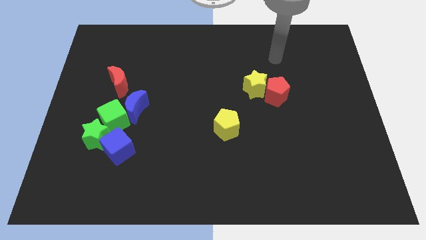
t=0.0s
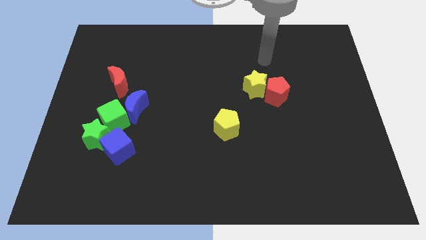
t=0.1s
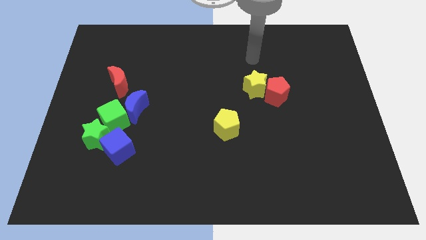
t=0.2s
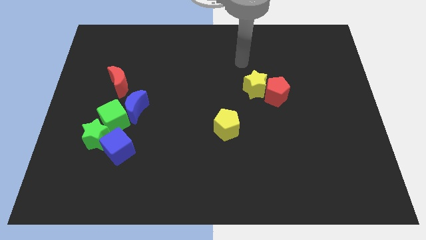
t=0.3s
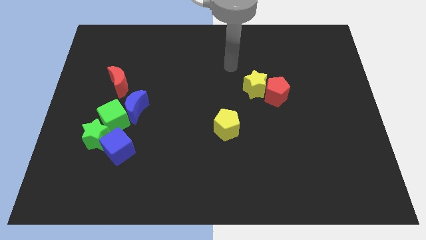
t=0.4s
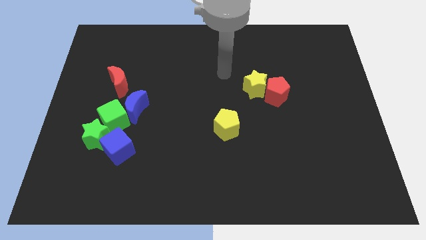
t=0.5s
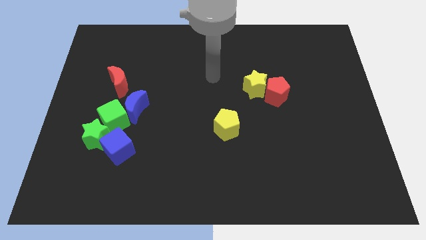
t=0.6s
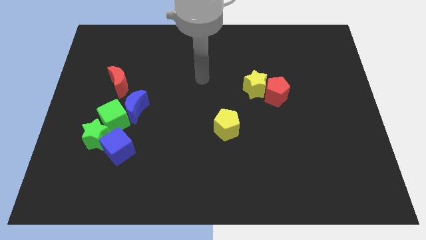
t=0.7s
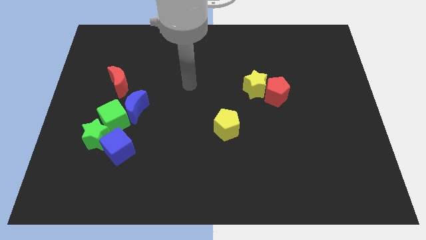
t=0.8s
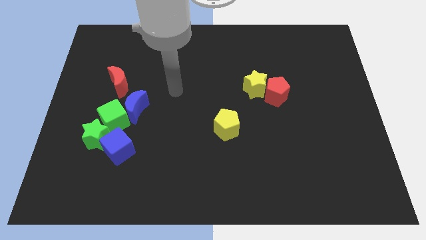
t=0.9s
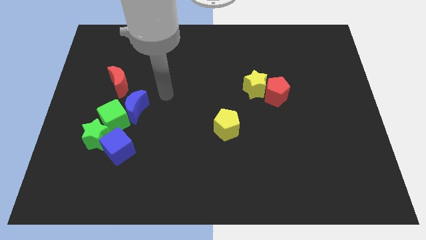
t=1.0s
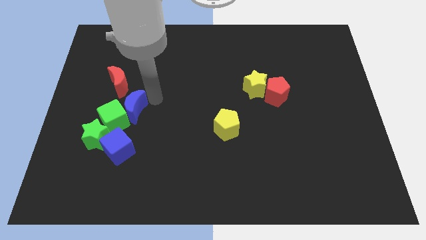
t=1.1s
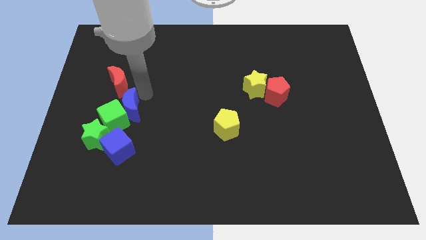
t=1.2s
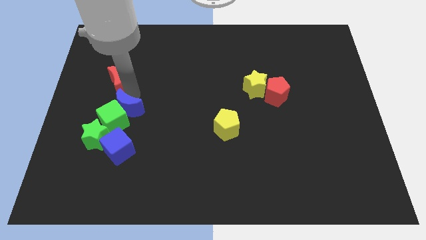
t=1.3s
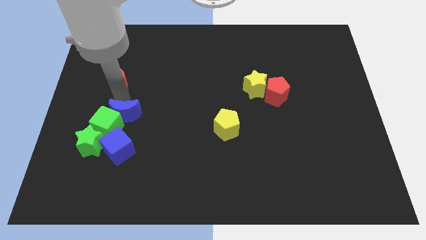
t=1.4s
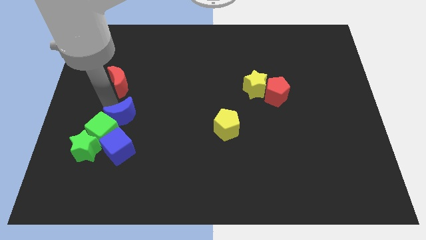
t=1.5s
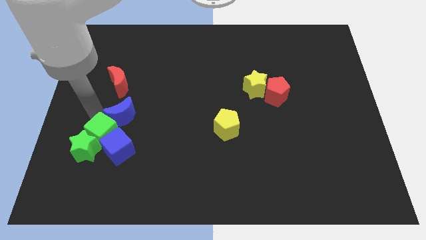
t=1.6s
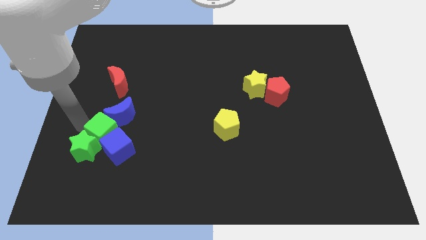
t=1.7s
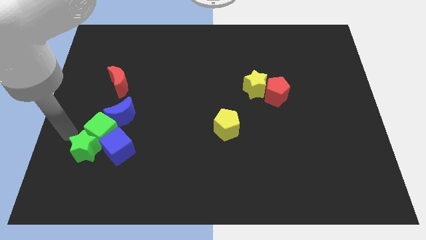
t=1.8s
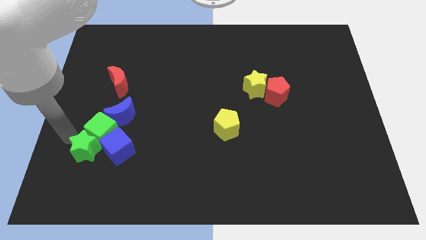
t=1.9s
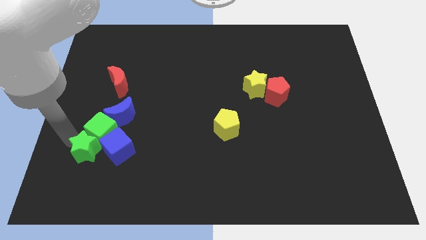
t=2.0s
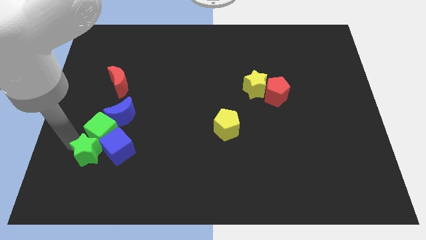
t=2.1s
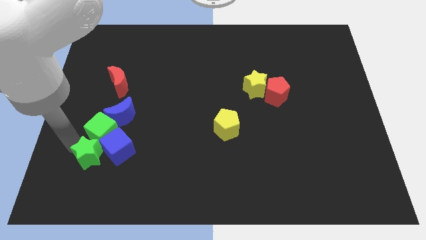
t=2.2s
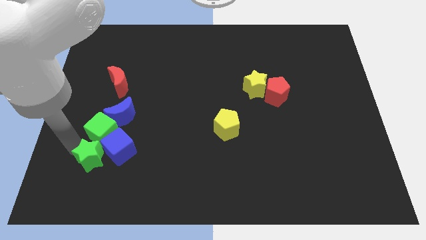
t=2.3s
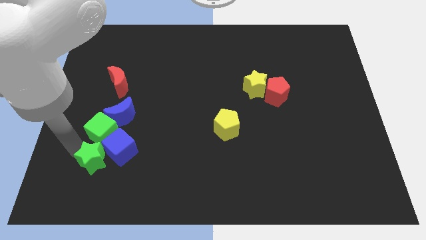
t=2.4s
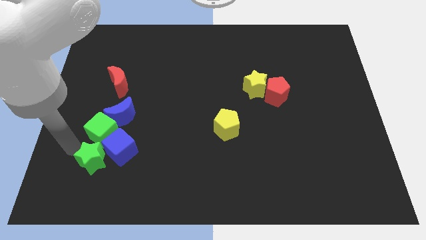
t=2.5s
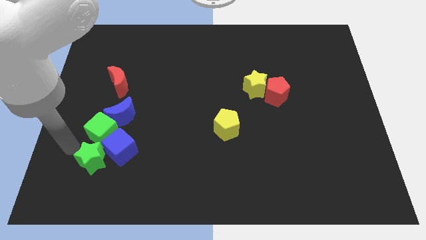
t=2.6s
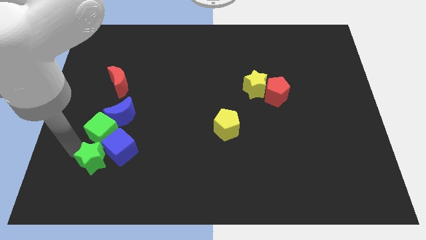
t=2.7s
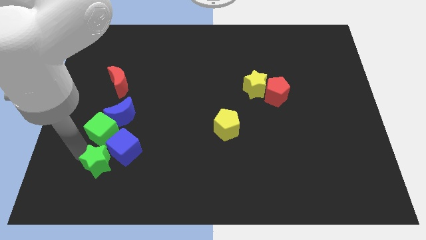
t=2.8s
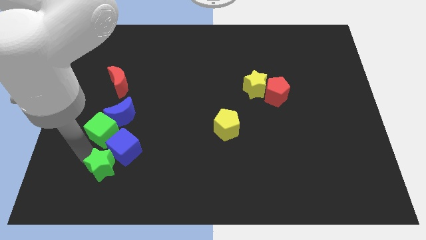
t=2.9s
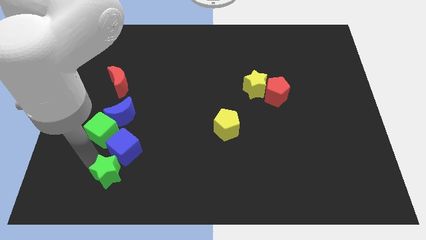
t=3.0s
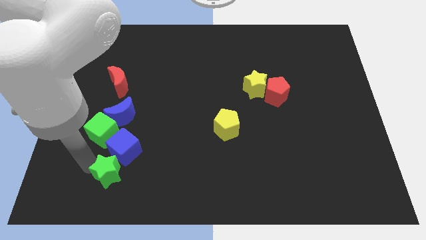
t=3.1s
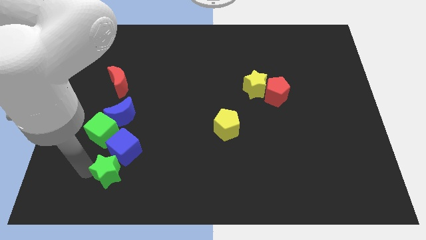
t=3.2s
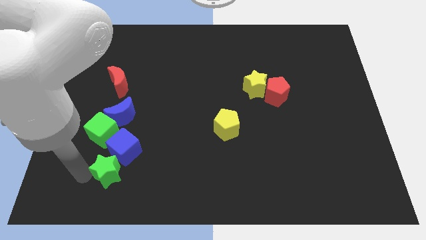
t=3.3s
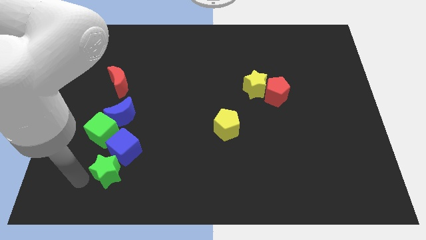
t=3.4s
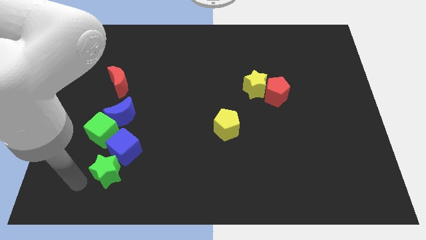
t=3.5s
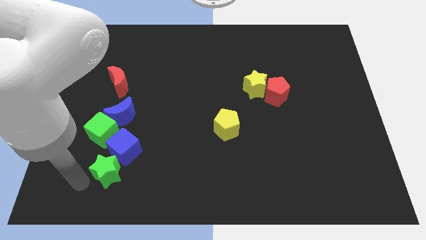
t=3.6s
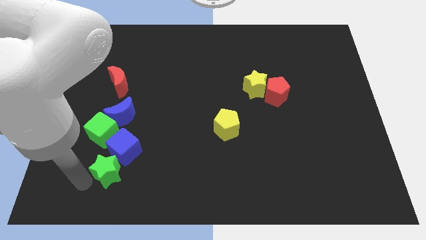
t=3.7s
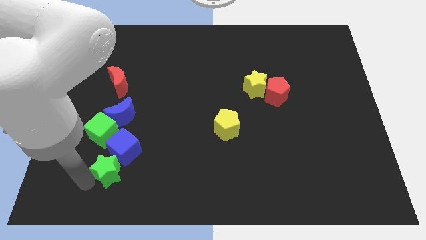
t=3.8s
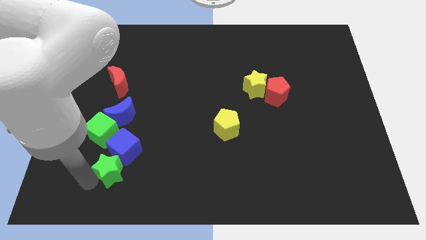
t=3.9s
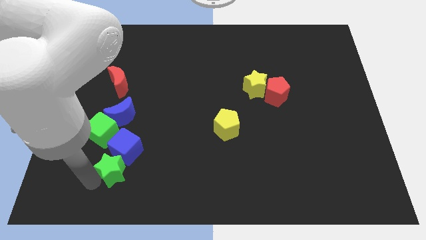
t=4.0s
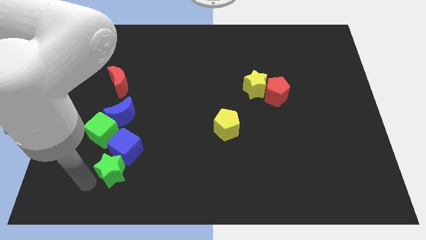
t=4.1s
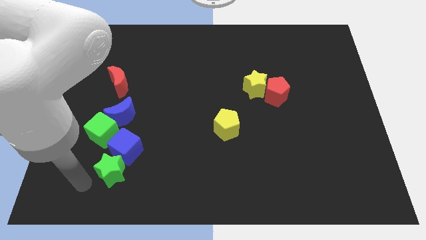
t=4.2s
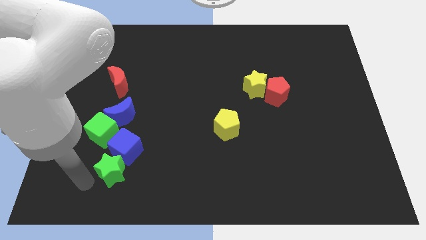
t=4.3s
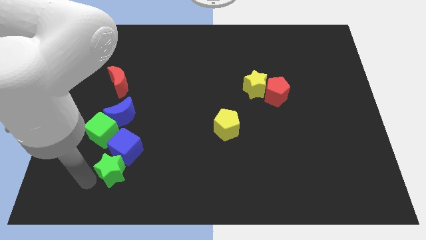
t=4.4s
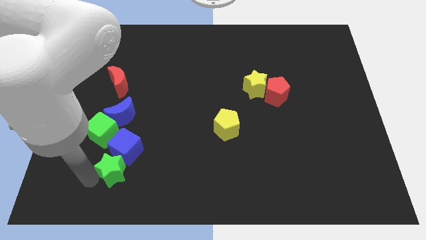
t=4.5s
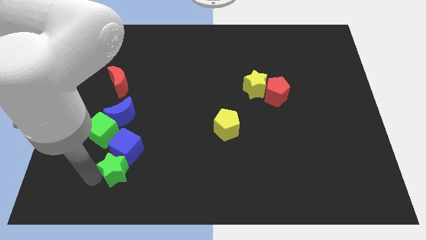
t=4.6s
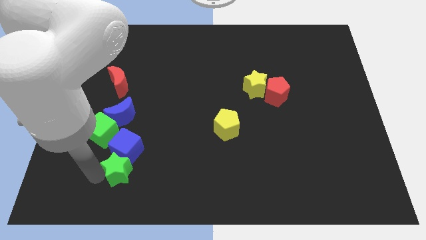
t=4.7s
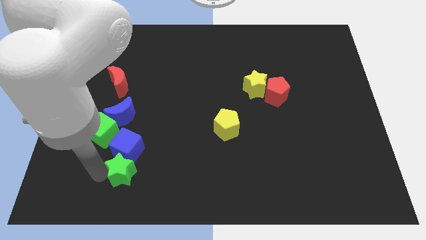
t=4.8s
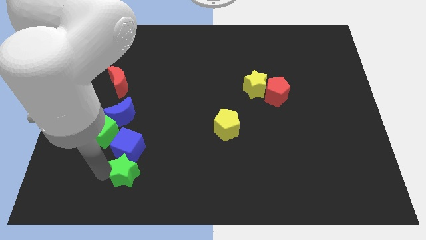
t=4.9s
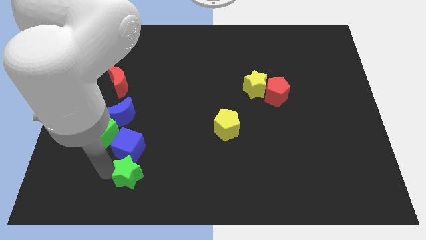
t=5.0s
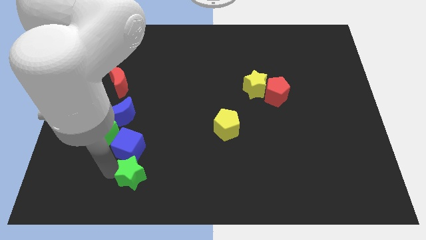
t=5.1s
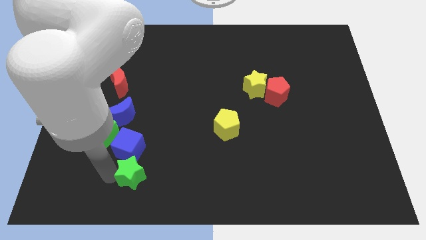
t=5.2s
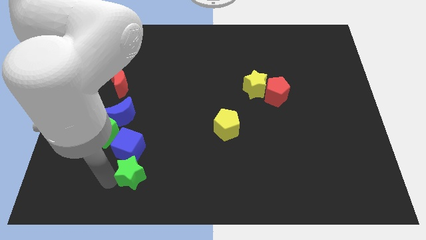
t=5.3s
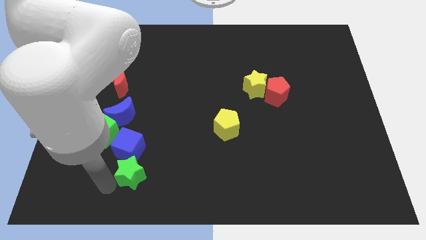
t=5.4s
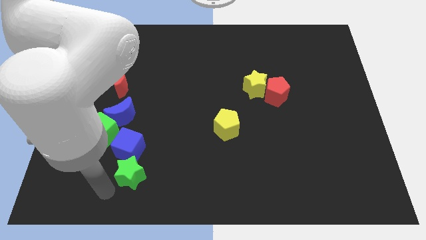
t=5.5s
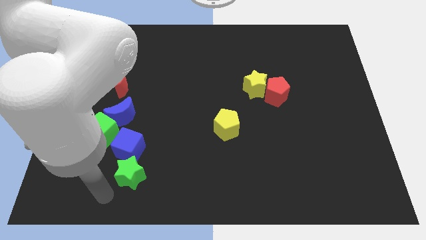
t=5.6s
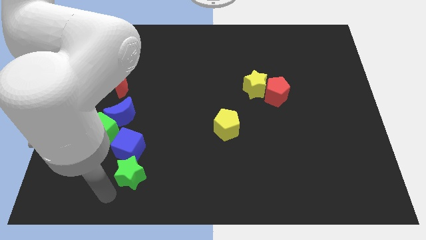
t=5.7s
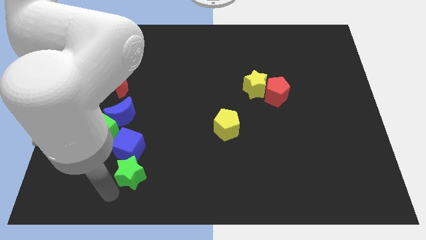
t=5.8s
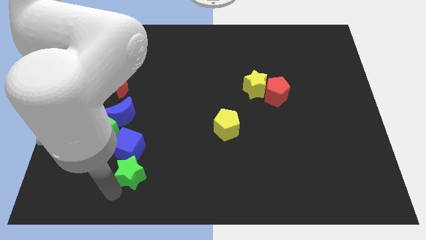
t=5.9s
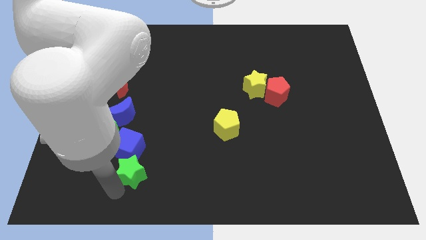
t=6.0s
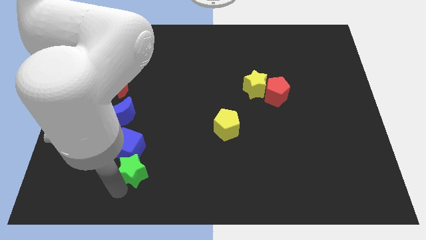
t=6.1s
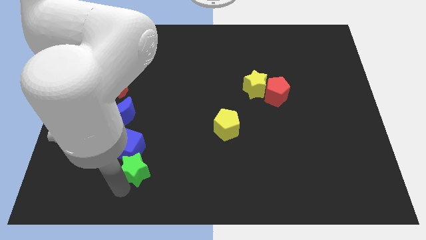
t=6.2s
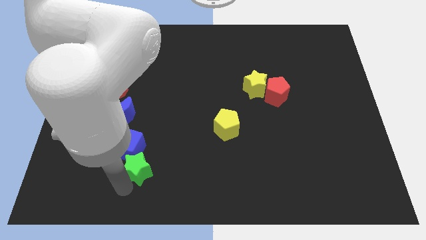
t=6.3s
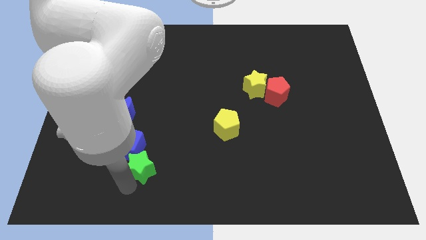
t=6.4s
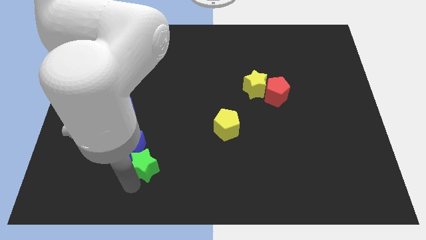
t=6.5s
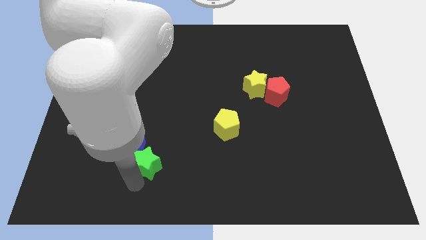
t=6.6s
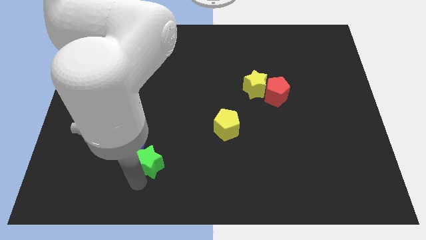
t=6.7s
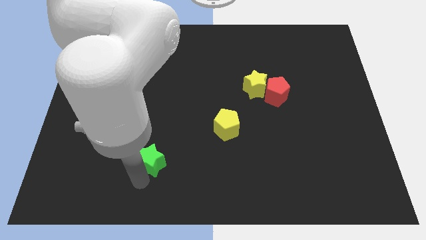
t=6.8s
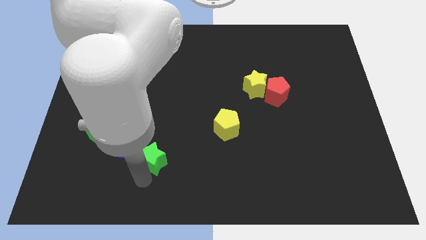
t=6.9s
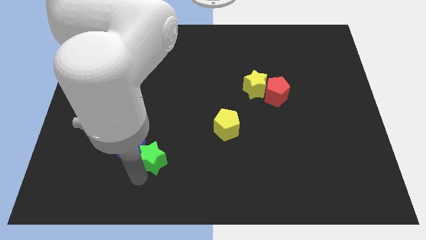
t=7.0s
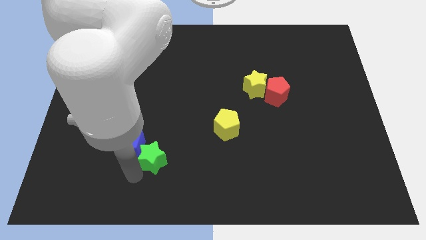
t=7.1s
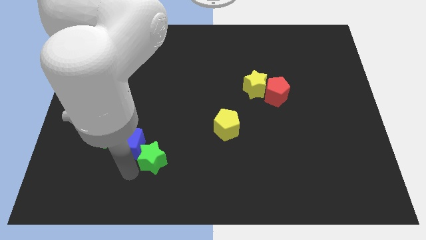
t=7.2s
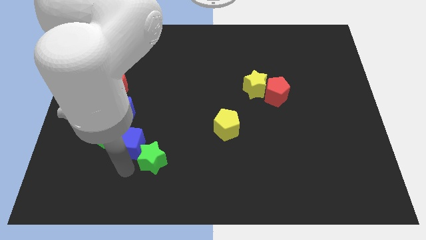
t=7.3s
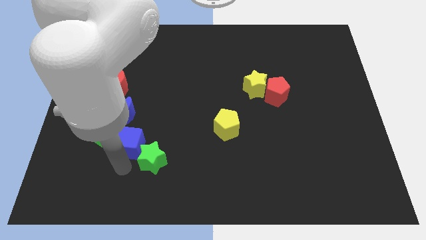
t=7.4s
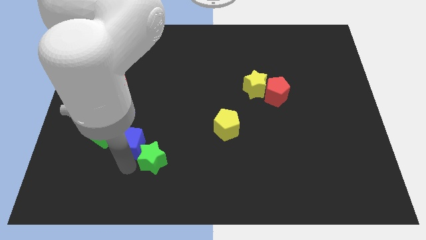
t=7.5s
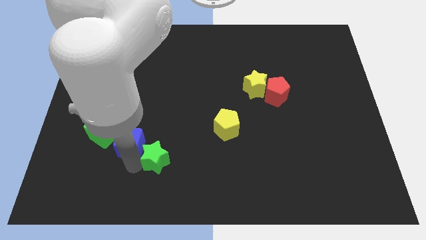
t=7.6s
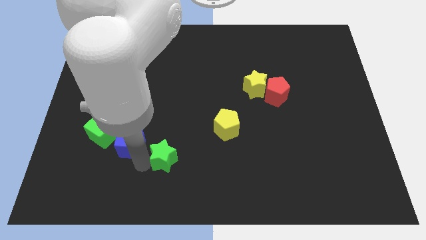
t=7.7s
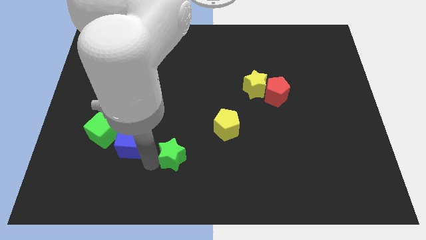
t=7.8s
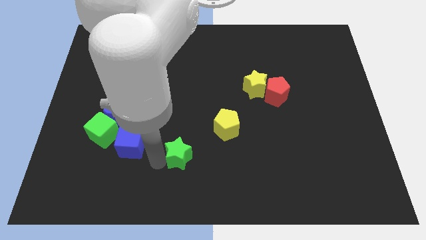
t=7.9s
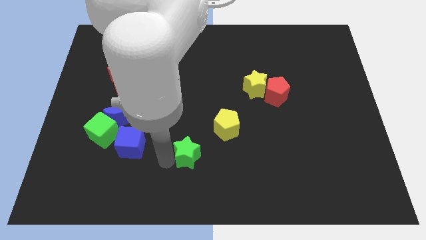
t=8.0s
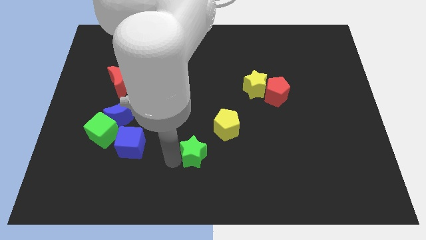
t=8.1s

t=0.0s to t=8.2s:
move the green star right

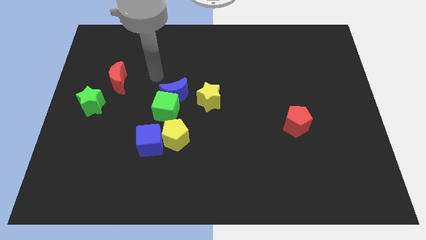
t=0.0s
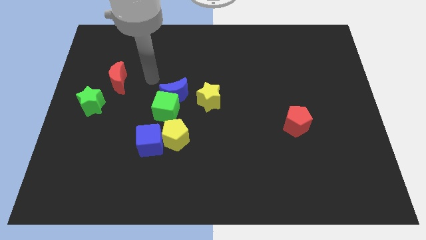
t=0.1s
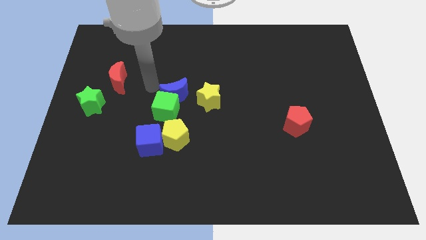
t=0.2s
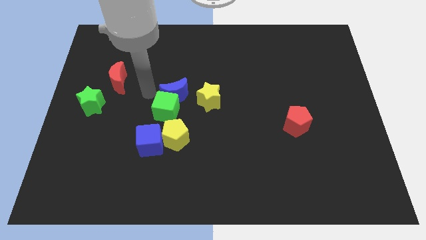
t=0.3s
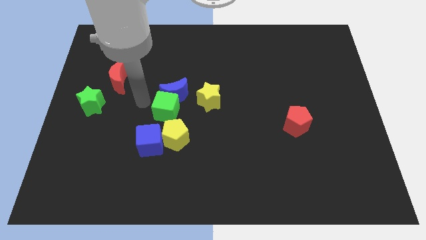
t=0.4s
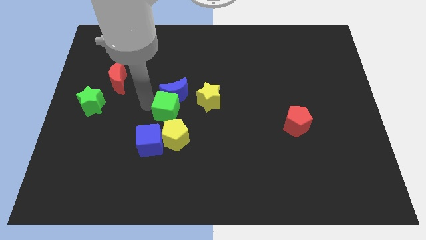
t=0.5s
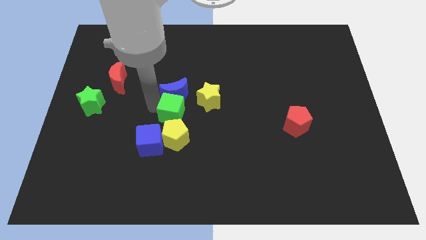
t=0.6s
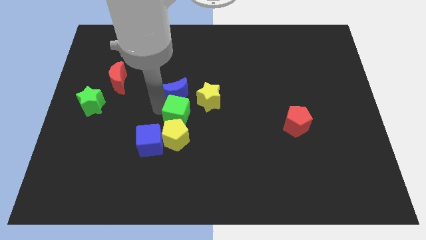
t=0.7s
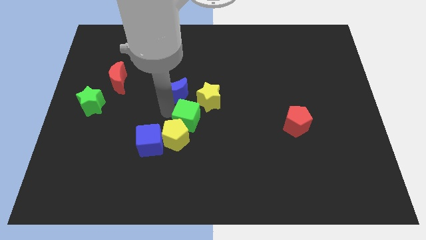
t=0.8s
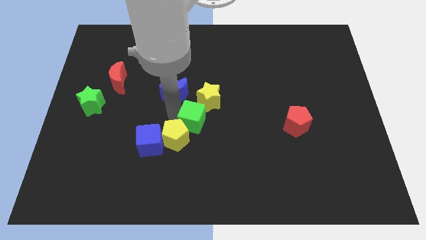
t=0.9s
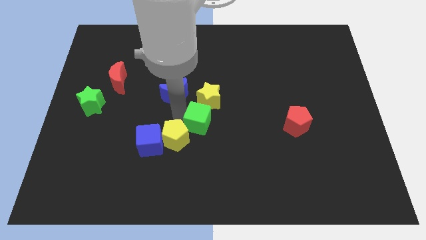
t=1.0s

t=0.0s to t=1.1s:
slightly push the green cube right
